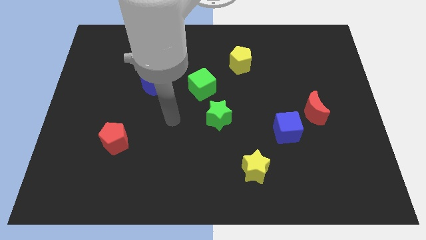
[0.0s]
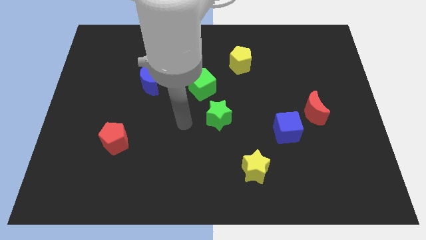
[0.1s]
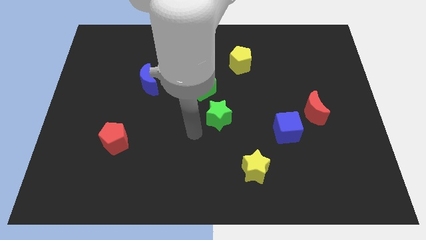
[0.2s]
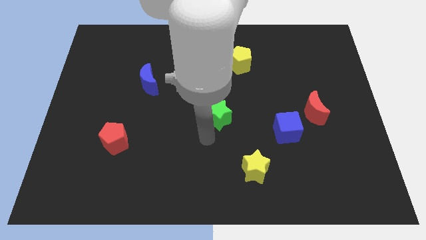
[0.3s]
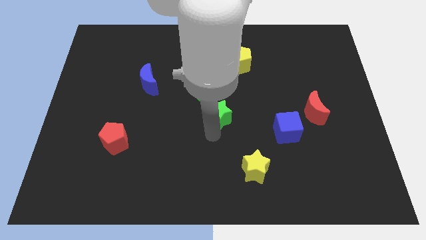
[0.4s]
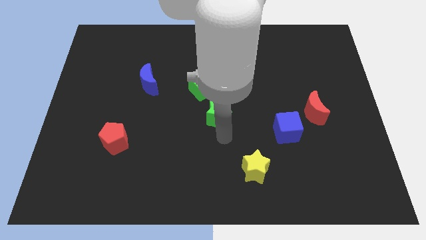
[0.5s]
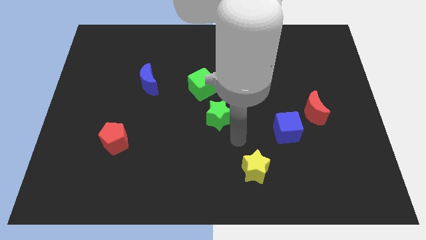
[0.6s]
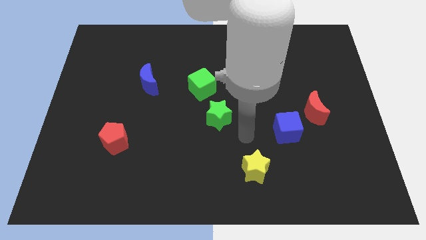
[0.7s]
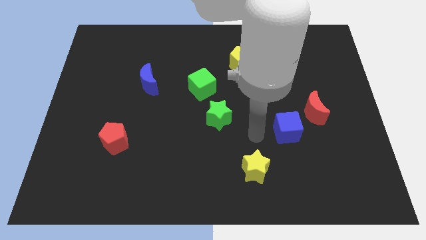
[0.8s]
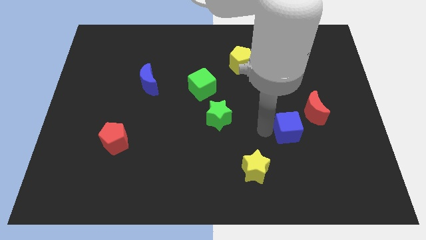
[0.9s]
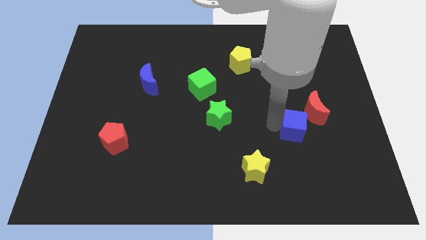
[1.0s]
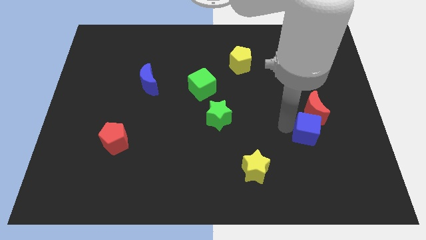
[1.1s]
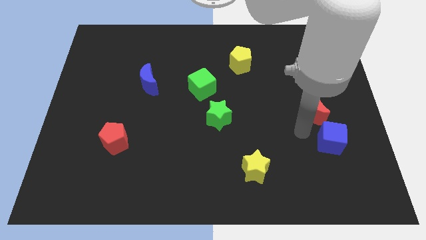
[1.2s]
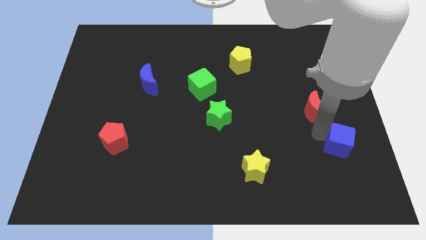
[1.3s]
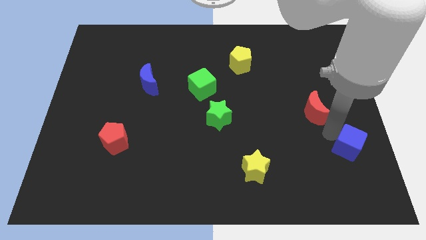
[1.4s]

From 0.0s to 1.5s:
move the red moon away from the blue cube

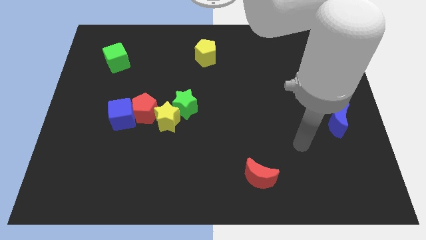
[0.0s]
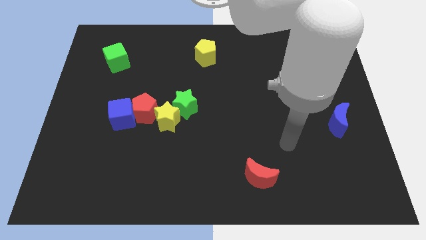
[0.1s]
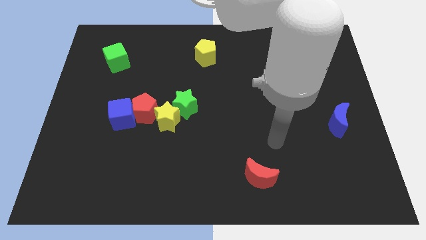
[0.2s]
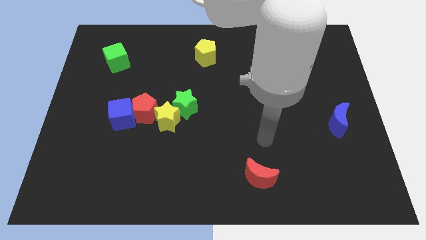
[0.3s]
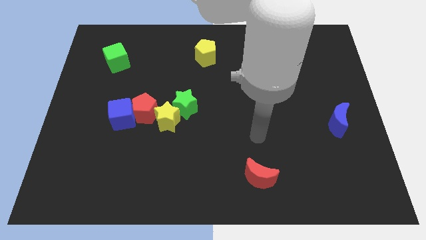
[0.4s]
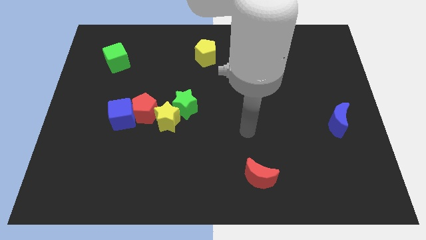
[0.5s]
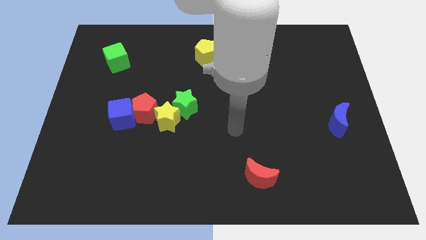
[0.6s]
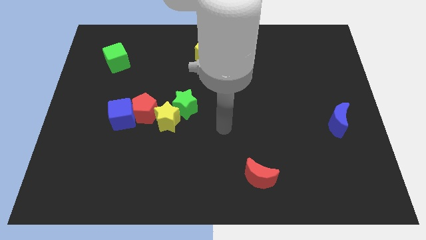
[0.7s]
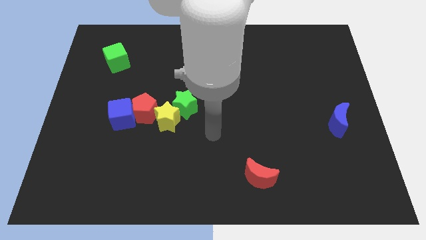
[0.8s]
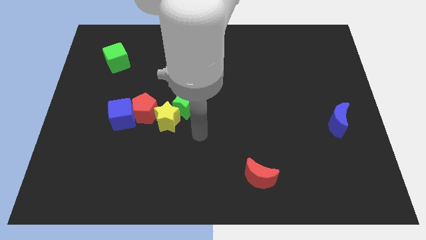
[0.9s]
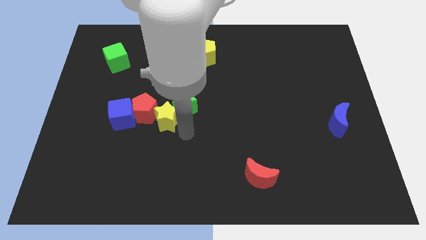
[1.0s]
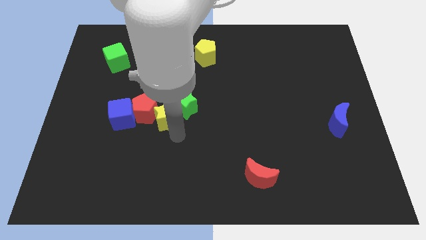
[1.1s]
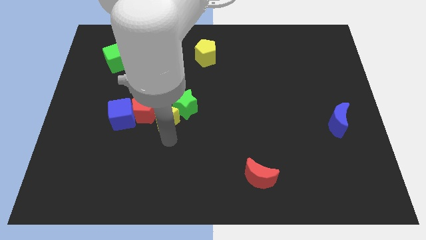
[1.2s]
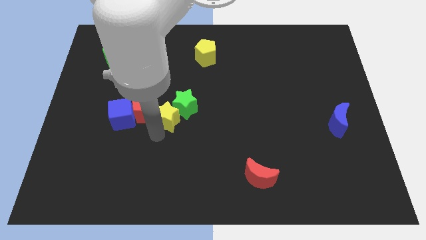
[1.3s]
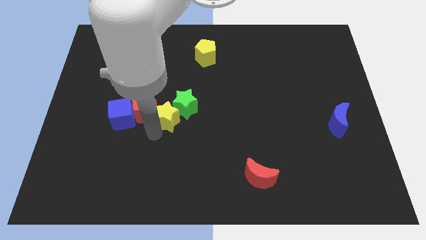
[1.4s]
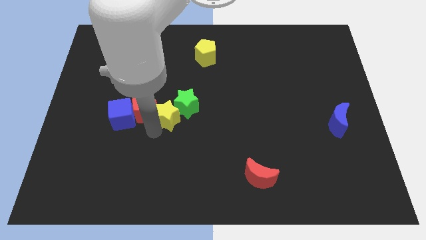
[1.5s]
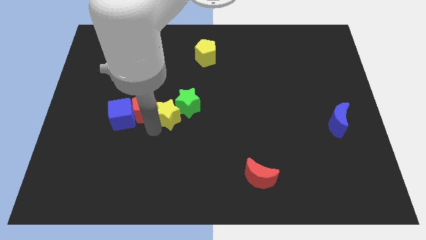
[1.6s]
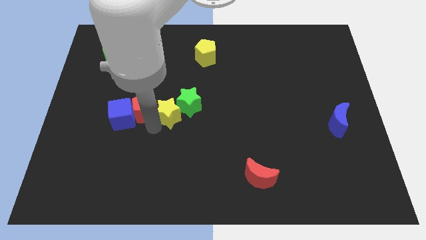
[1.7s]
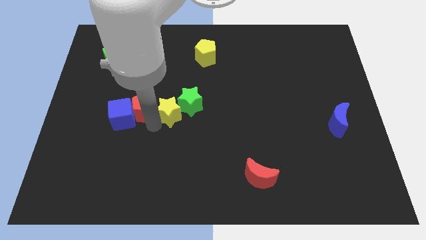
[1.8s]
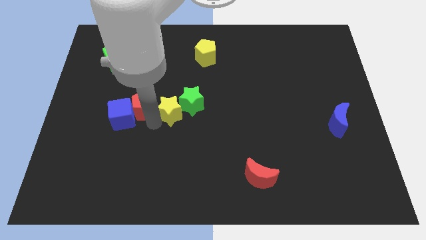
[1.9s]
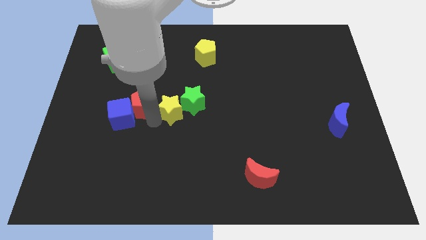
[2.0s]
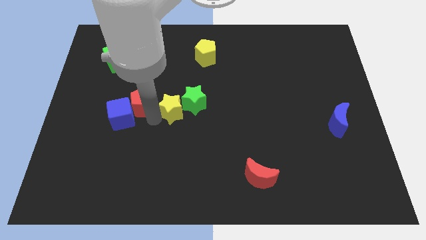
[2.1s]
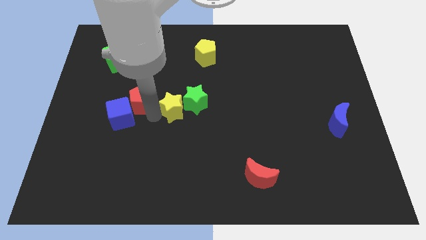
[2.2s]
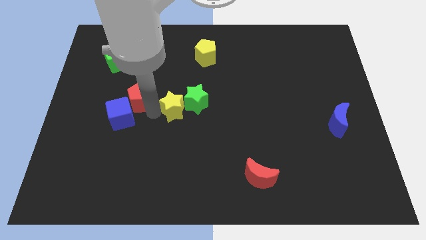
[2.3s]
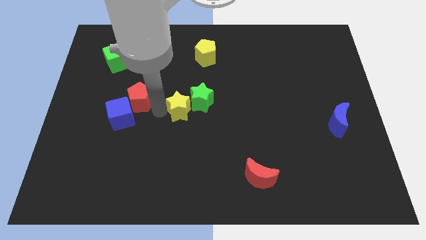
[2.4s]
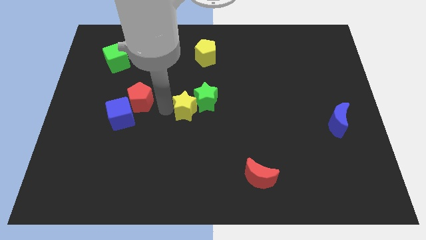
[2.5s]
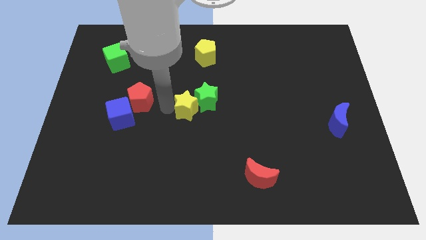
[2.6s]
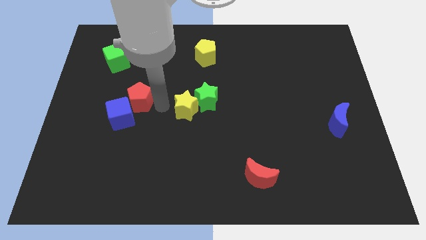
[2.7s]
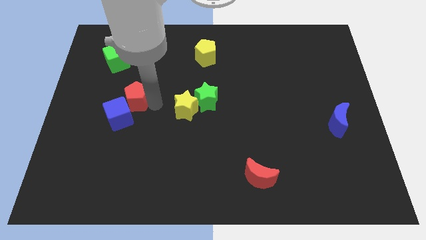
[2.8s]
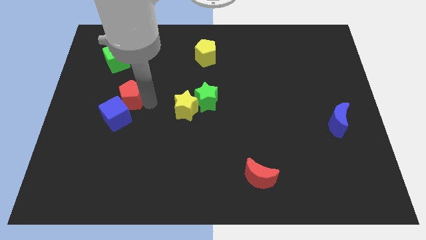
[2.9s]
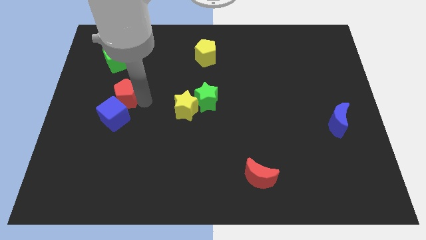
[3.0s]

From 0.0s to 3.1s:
move the red pentagon away from the blue cube, yellow star, and green star

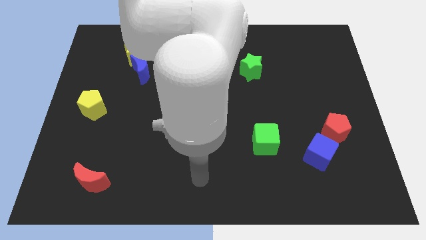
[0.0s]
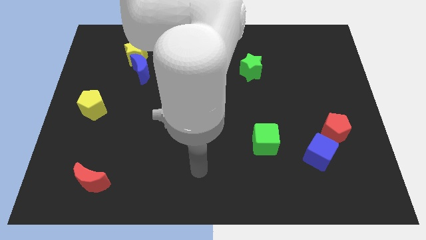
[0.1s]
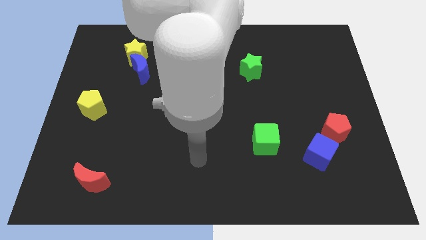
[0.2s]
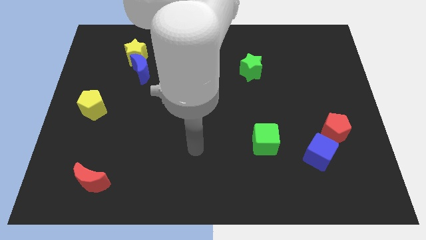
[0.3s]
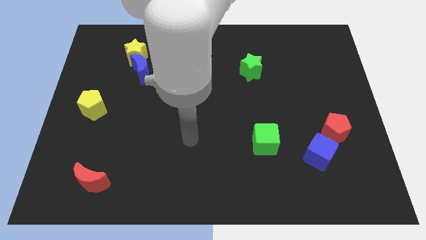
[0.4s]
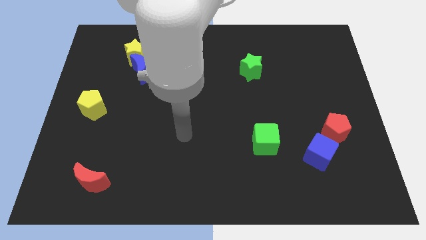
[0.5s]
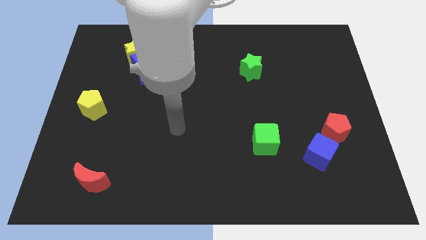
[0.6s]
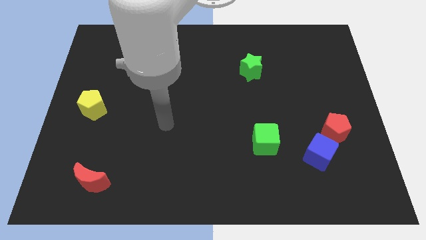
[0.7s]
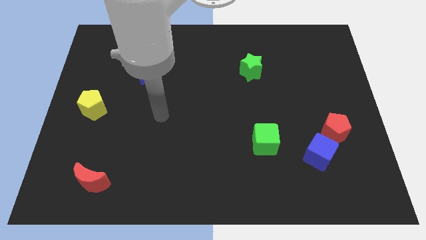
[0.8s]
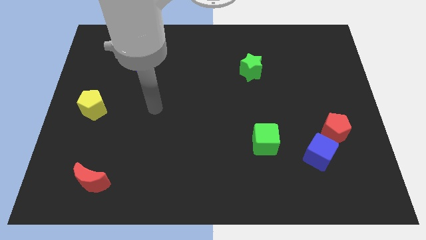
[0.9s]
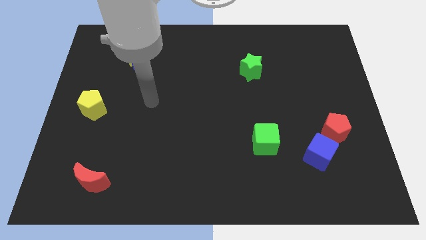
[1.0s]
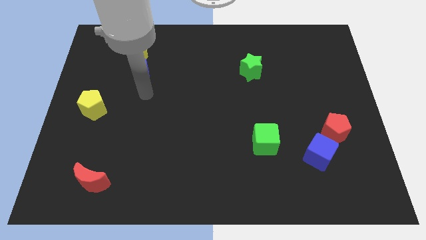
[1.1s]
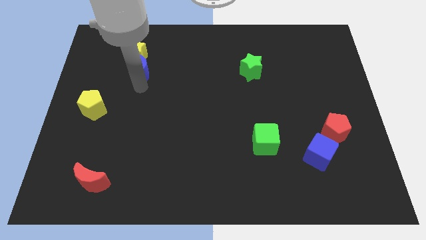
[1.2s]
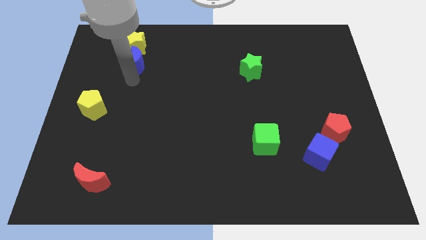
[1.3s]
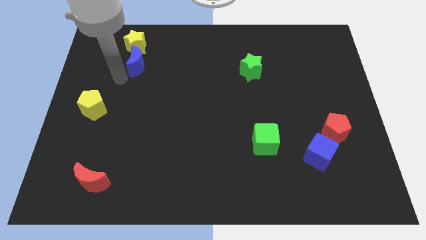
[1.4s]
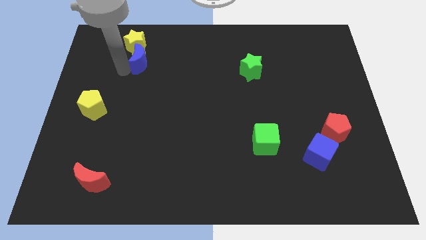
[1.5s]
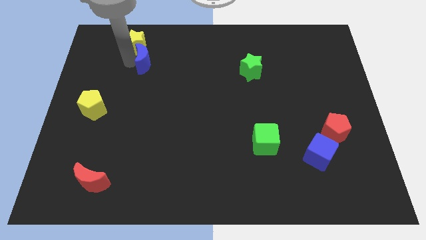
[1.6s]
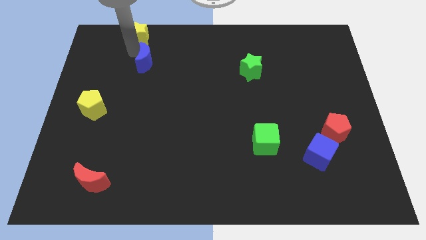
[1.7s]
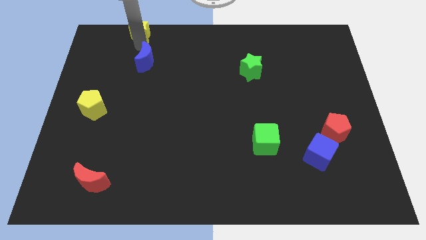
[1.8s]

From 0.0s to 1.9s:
separate the blue moon from the yellow star

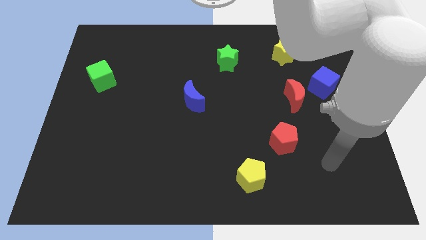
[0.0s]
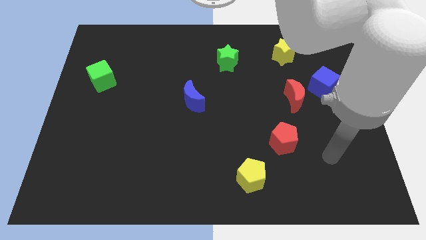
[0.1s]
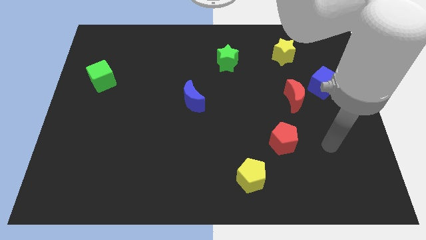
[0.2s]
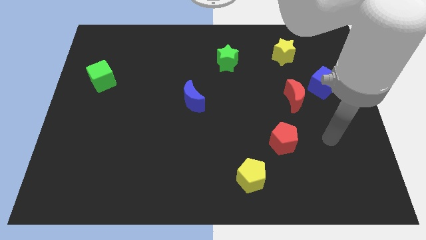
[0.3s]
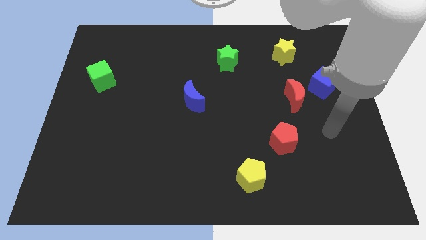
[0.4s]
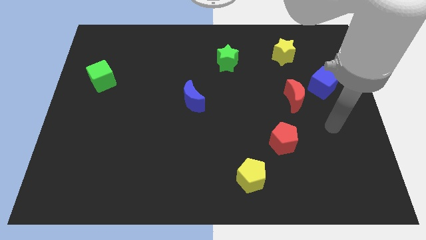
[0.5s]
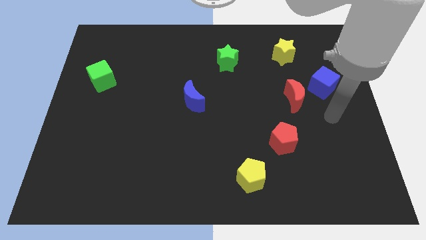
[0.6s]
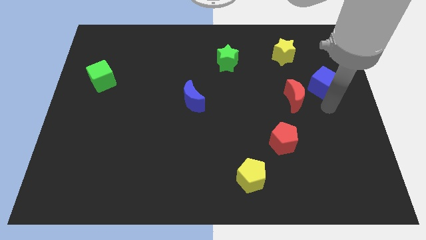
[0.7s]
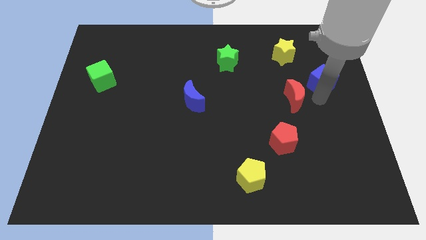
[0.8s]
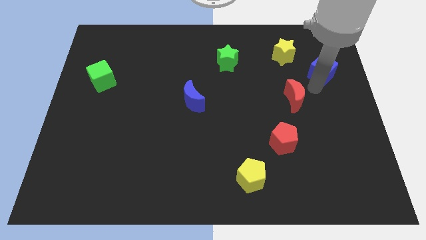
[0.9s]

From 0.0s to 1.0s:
separate the red moon from the blue cube

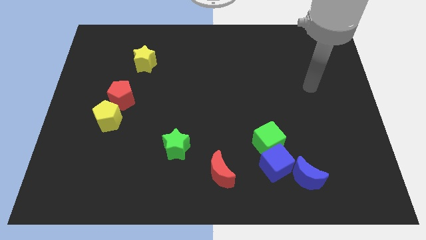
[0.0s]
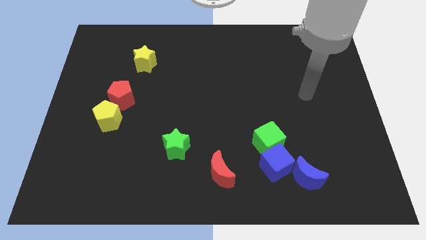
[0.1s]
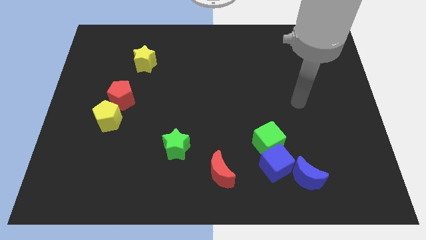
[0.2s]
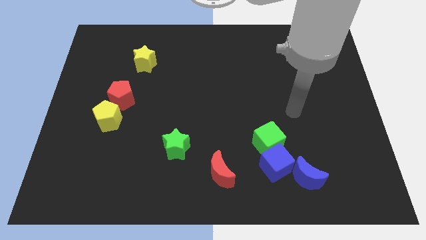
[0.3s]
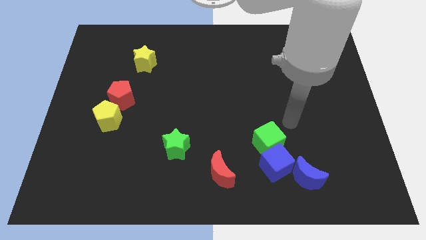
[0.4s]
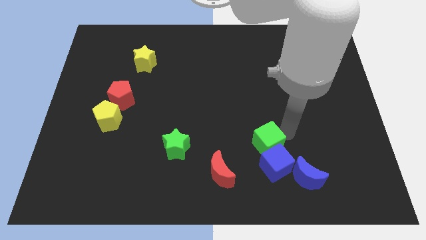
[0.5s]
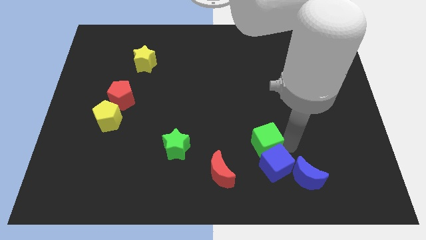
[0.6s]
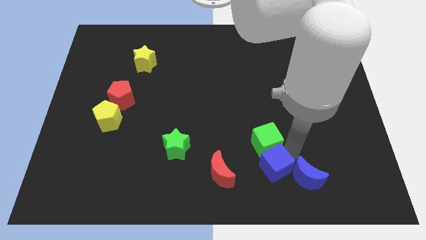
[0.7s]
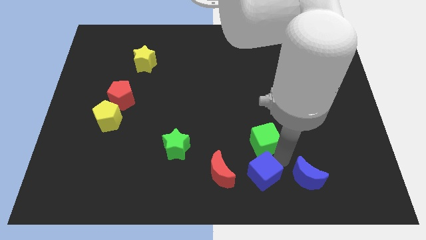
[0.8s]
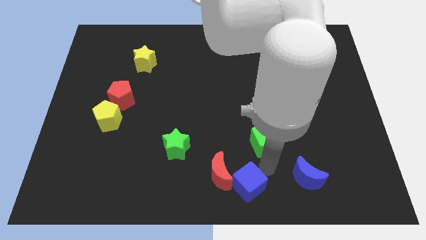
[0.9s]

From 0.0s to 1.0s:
pull the green cube apart from the blue cube

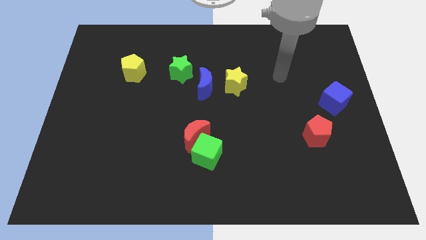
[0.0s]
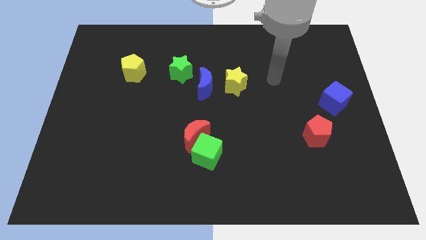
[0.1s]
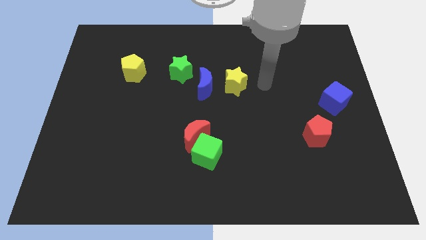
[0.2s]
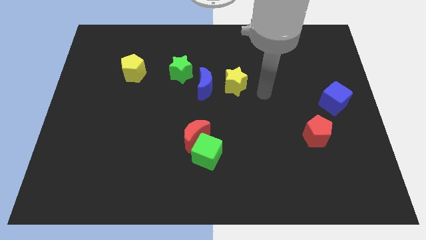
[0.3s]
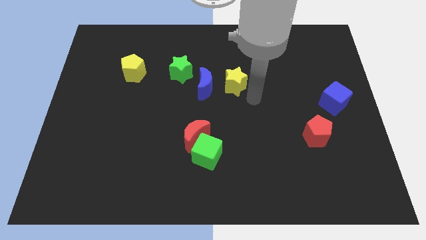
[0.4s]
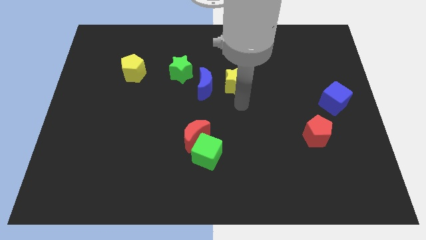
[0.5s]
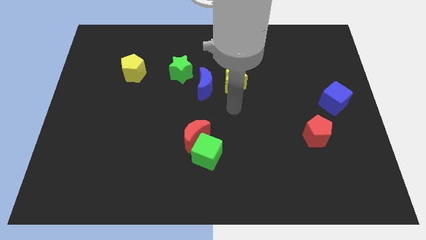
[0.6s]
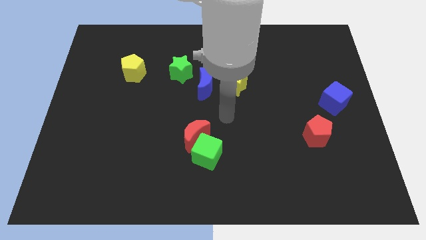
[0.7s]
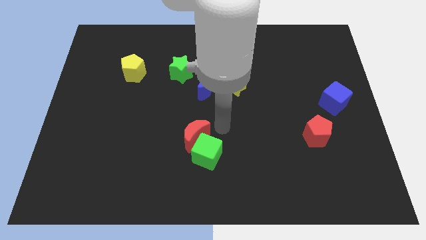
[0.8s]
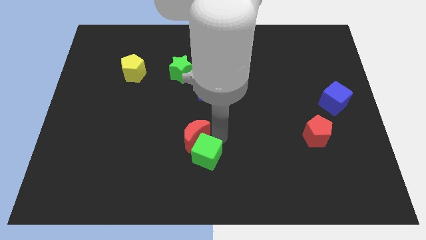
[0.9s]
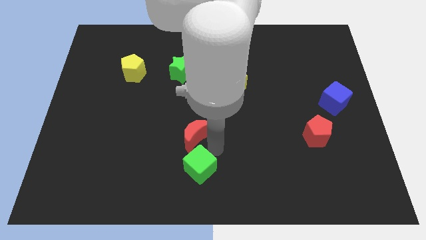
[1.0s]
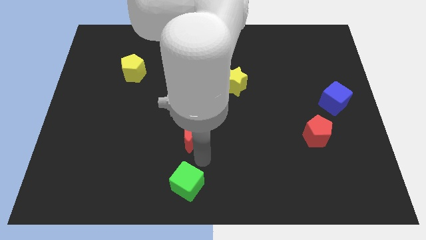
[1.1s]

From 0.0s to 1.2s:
move the red moon away from the green cube
